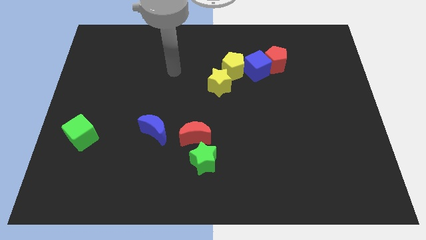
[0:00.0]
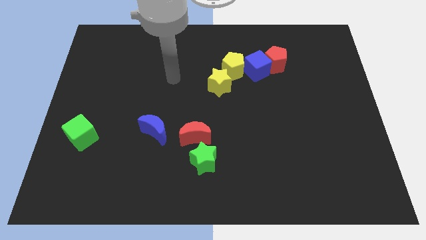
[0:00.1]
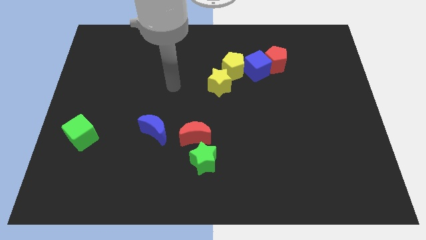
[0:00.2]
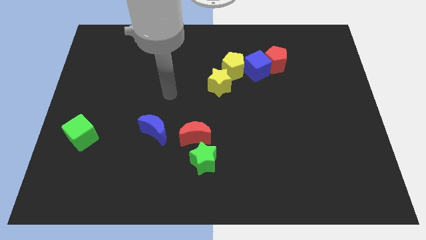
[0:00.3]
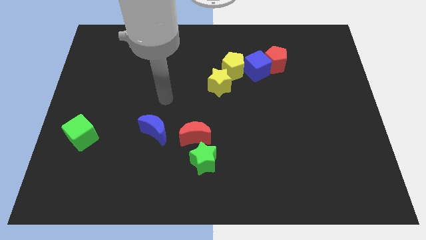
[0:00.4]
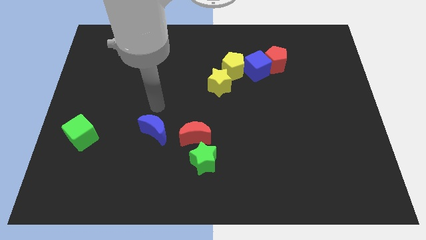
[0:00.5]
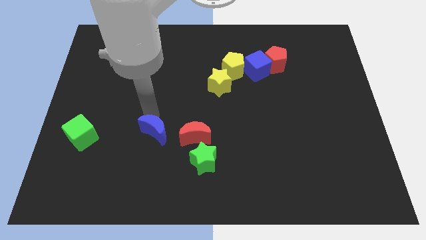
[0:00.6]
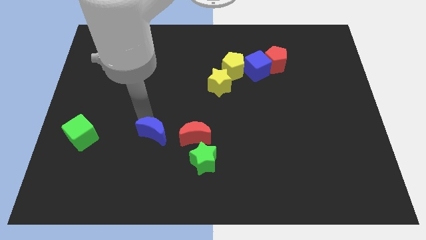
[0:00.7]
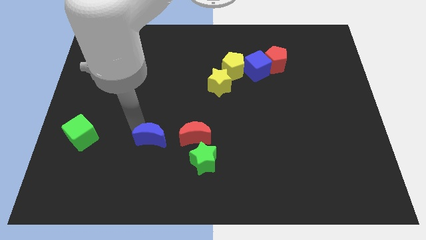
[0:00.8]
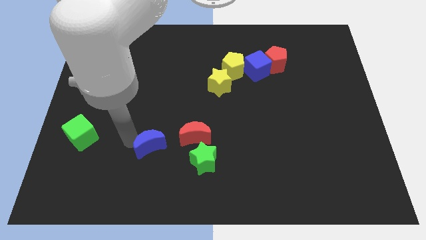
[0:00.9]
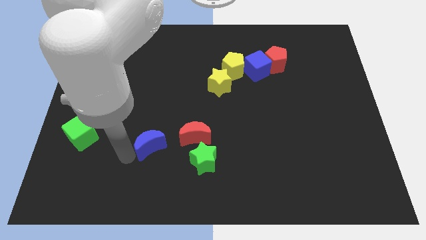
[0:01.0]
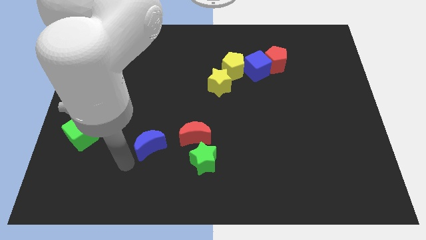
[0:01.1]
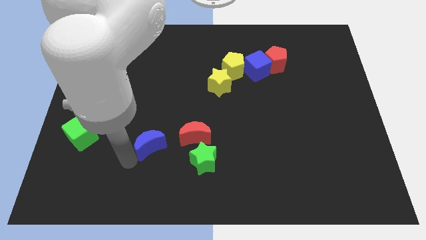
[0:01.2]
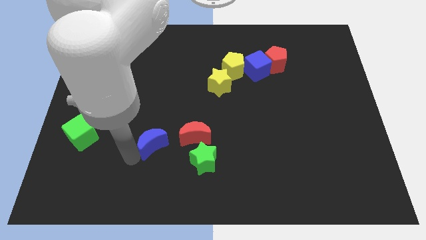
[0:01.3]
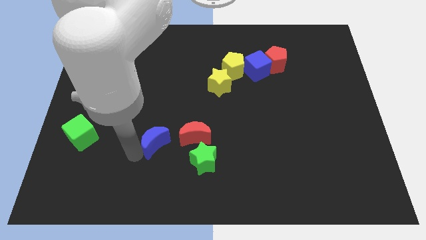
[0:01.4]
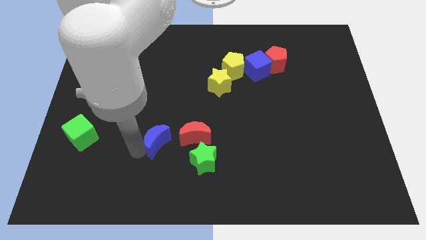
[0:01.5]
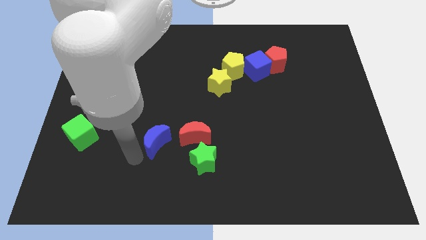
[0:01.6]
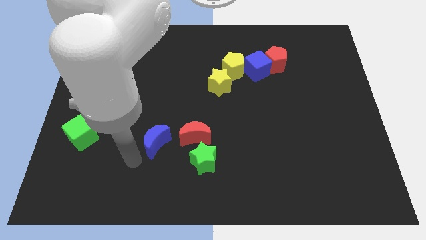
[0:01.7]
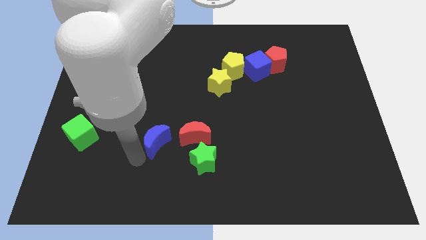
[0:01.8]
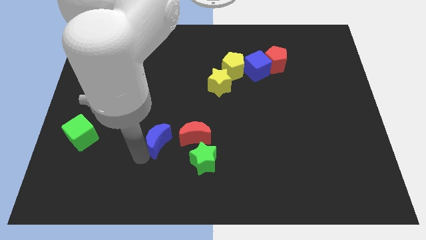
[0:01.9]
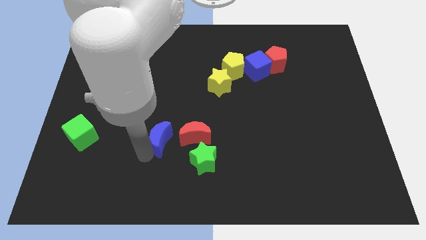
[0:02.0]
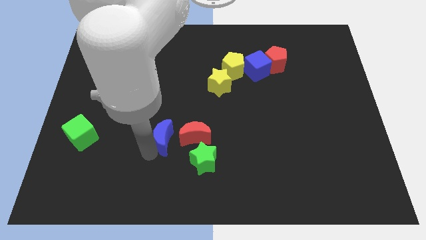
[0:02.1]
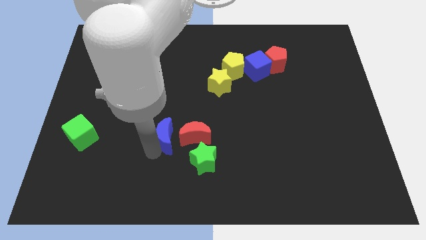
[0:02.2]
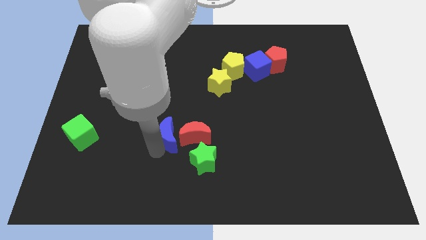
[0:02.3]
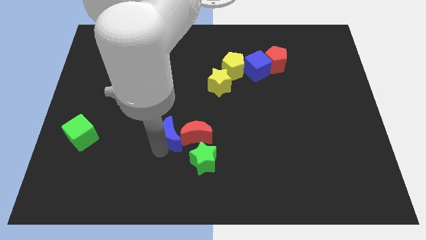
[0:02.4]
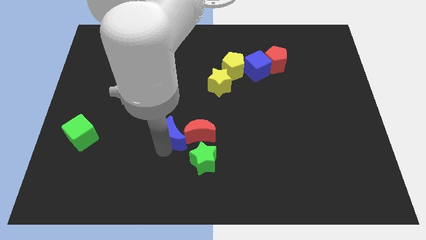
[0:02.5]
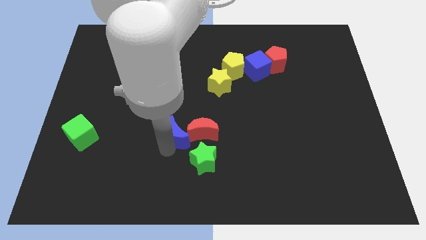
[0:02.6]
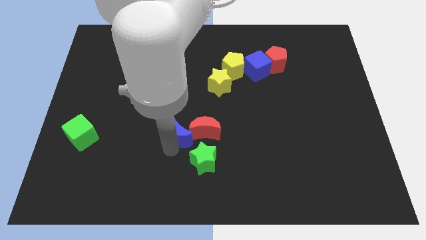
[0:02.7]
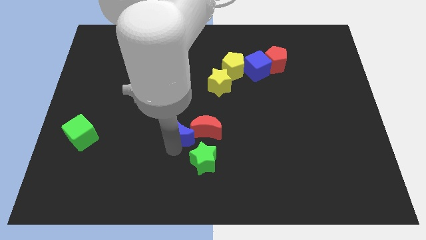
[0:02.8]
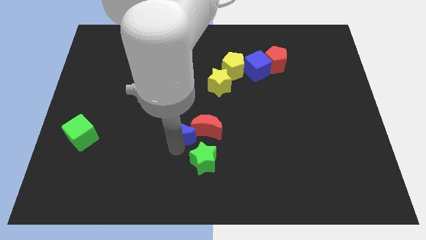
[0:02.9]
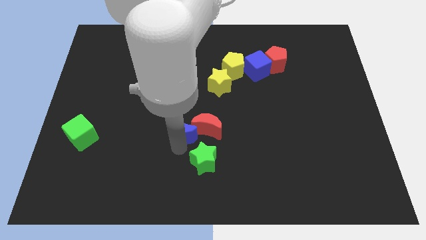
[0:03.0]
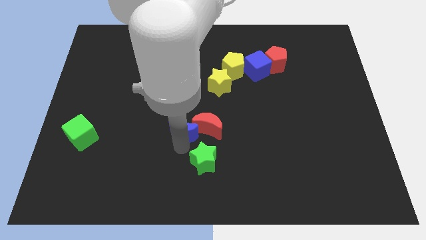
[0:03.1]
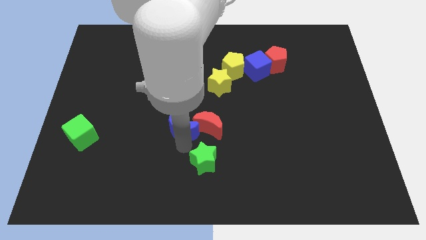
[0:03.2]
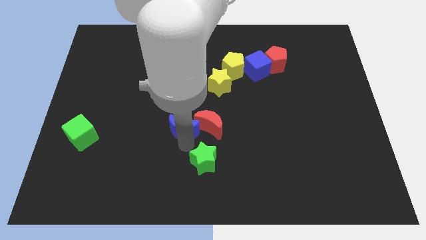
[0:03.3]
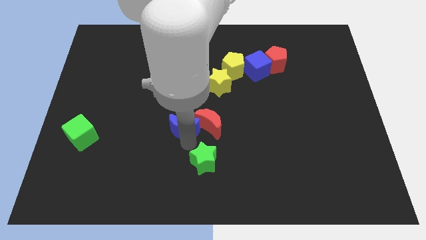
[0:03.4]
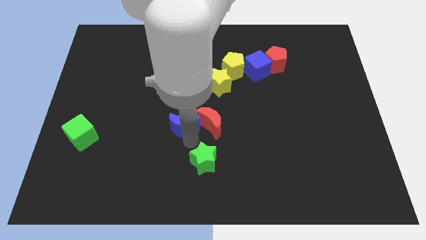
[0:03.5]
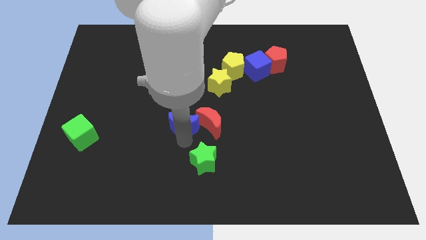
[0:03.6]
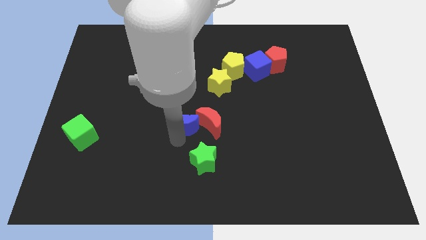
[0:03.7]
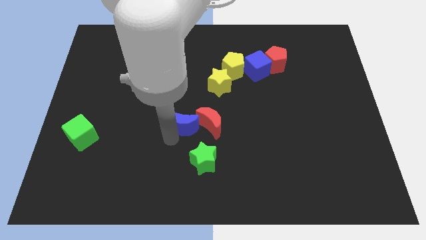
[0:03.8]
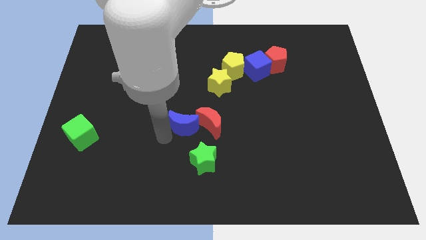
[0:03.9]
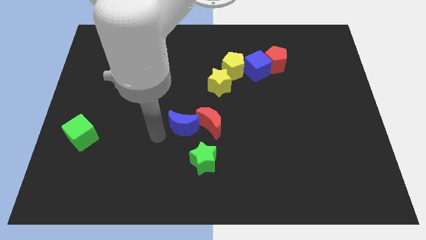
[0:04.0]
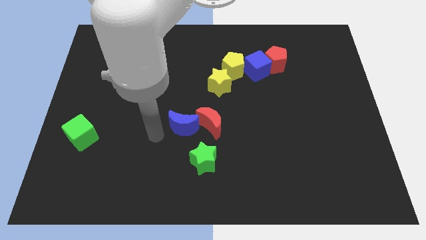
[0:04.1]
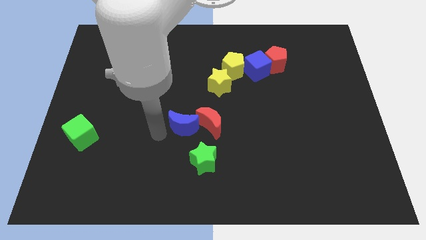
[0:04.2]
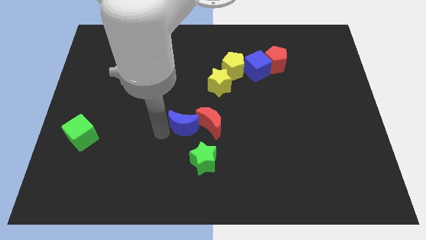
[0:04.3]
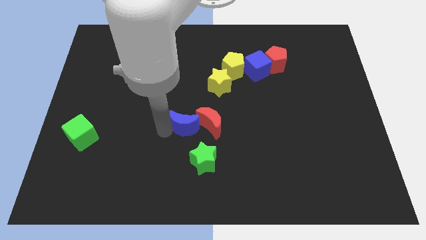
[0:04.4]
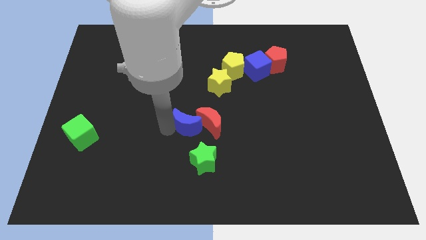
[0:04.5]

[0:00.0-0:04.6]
slightly move the blue moon right

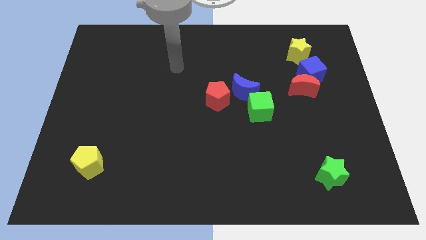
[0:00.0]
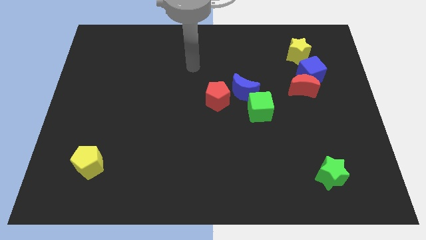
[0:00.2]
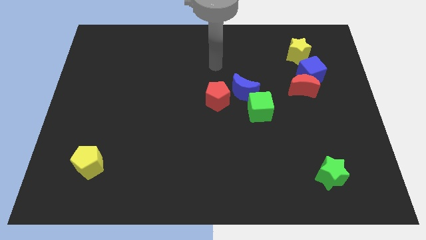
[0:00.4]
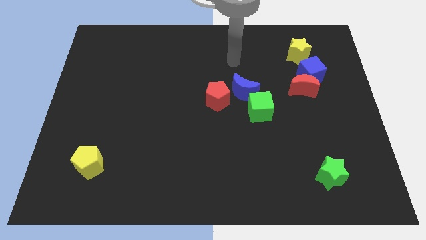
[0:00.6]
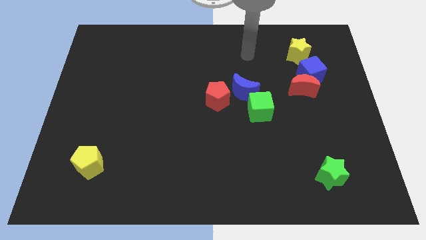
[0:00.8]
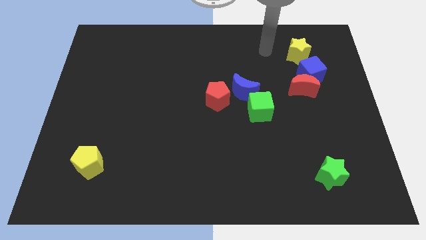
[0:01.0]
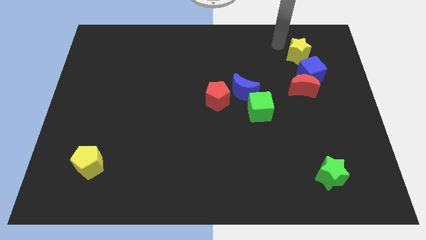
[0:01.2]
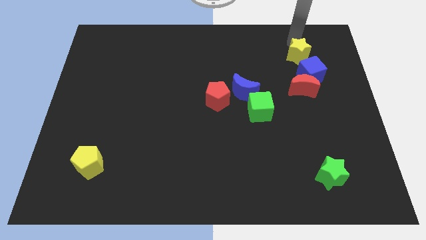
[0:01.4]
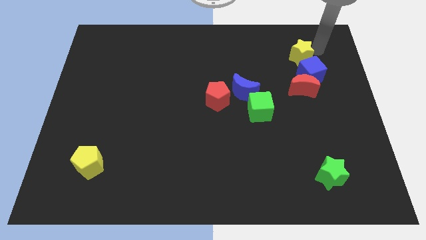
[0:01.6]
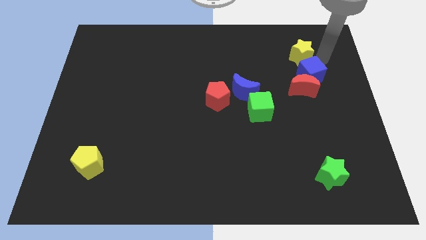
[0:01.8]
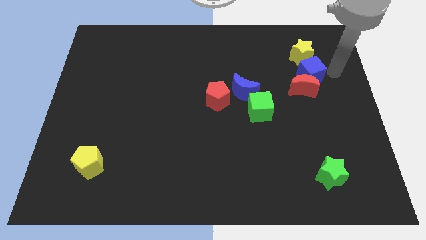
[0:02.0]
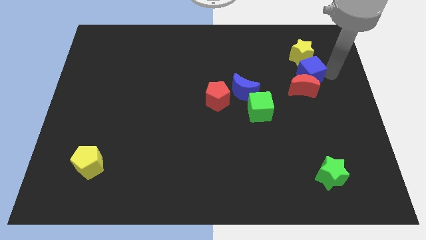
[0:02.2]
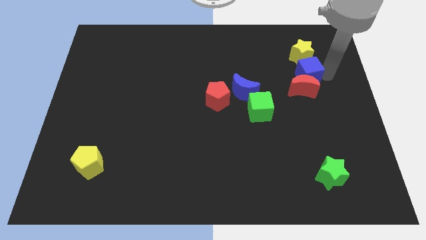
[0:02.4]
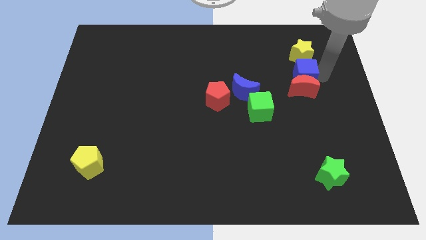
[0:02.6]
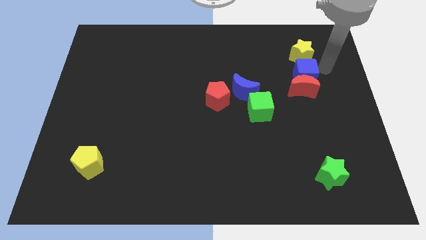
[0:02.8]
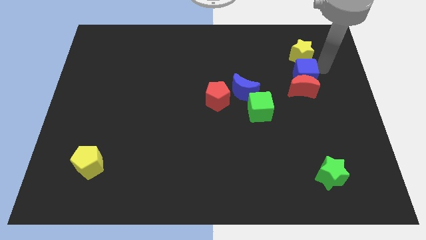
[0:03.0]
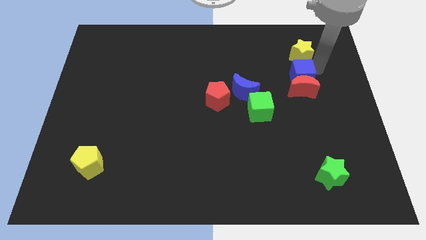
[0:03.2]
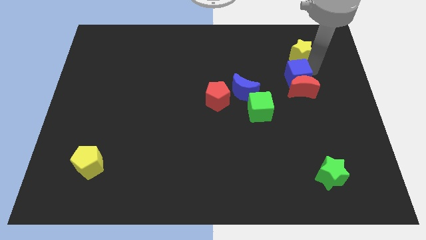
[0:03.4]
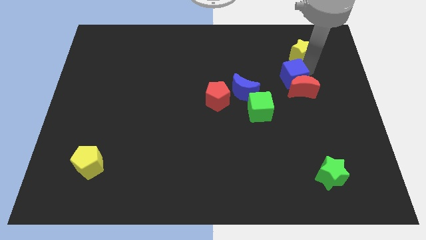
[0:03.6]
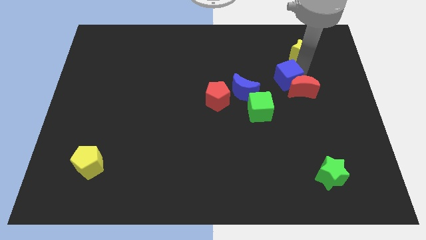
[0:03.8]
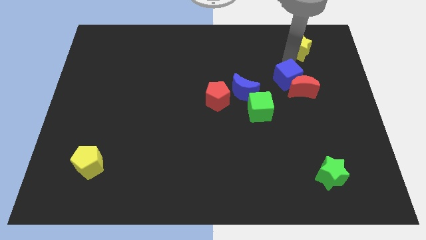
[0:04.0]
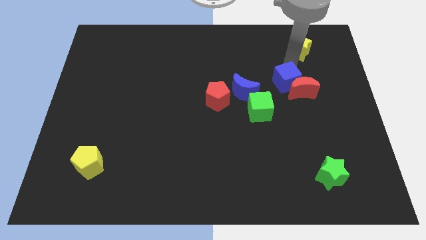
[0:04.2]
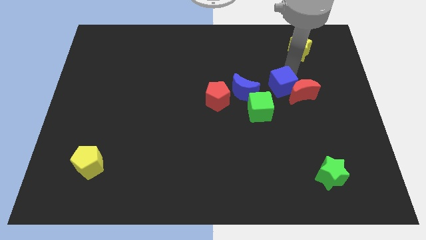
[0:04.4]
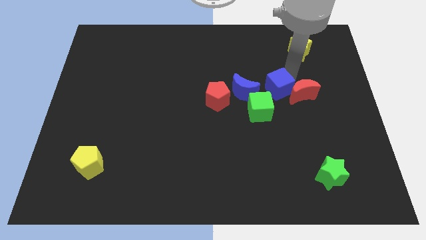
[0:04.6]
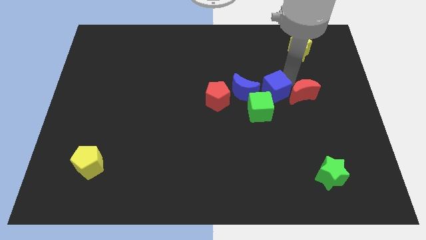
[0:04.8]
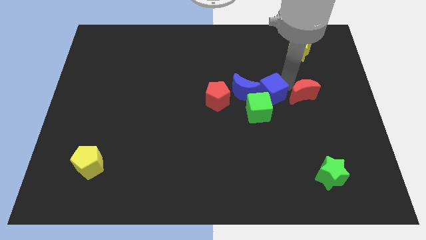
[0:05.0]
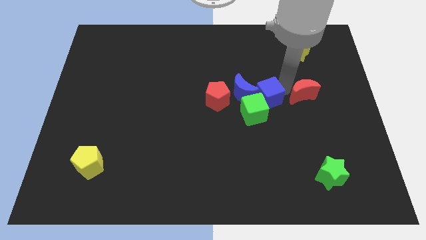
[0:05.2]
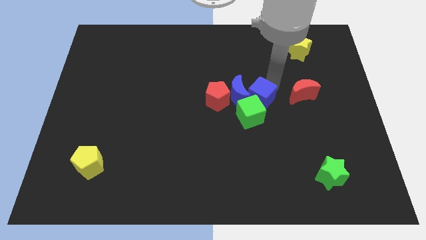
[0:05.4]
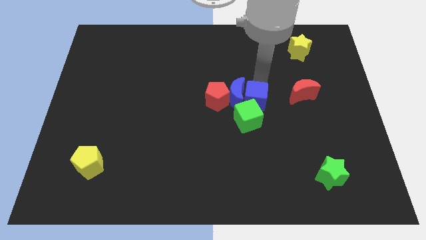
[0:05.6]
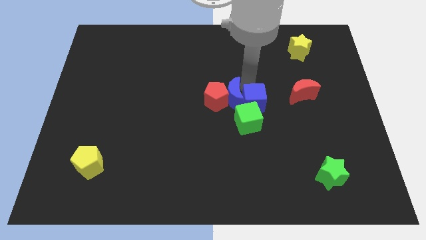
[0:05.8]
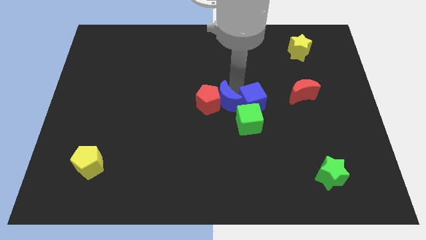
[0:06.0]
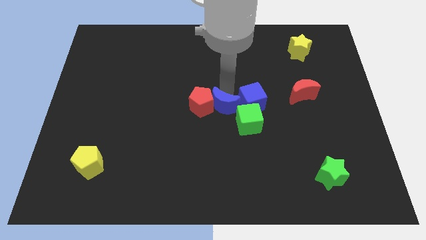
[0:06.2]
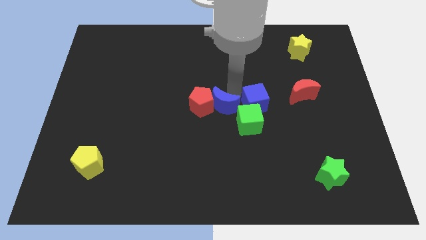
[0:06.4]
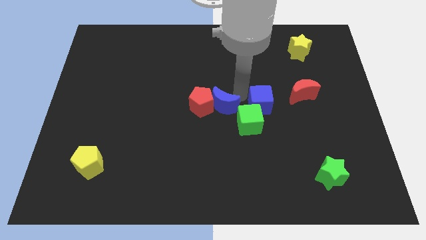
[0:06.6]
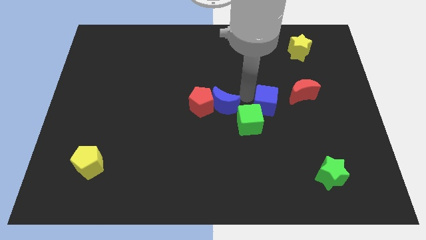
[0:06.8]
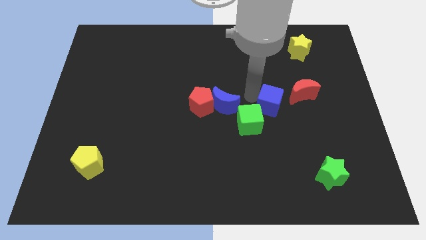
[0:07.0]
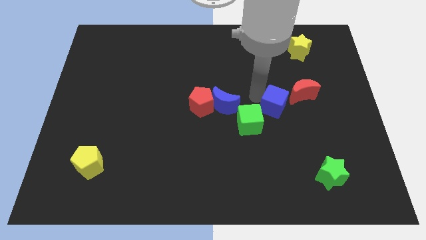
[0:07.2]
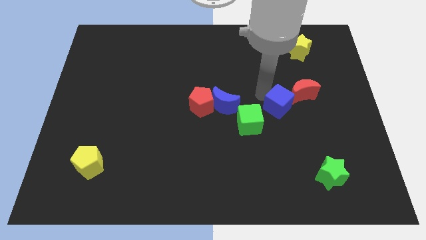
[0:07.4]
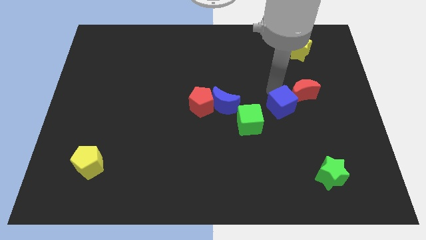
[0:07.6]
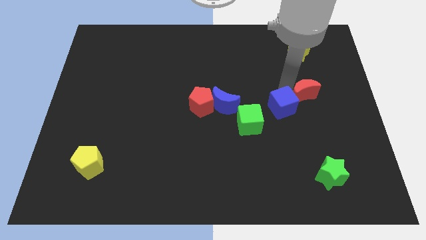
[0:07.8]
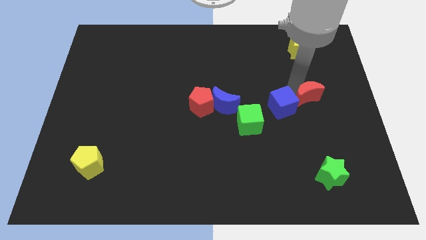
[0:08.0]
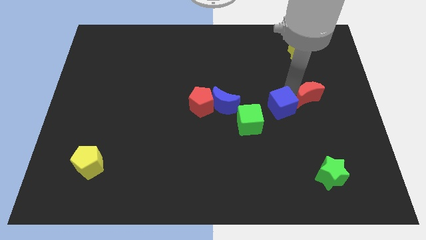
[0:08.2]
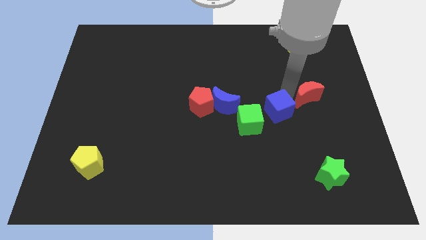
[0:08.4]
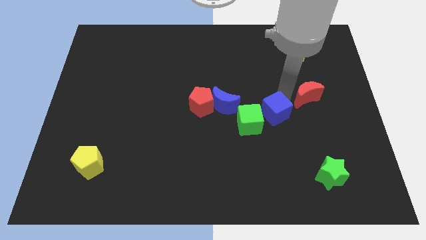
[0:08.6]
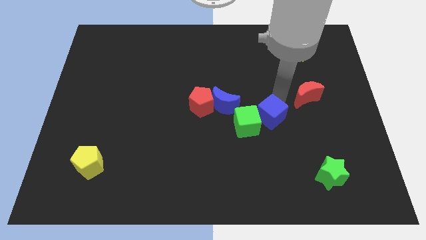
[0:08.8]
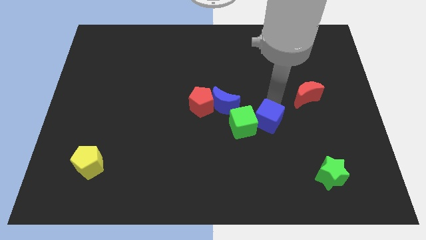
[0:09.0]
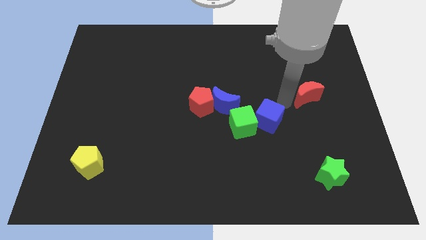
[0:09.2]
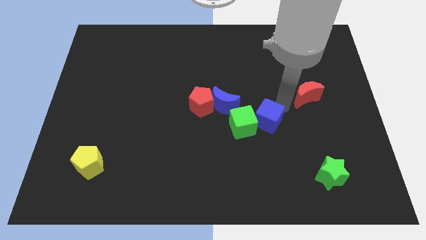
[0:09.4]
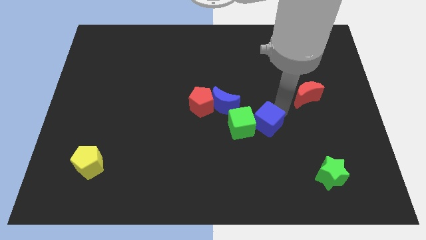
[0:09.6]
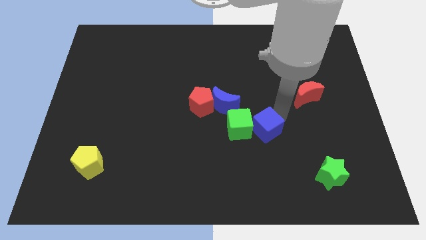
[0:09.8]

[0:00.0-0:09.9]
slide the blue cube downwards and left
